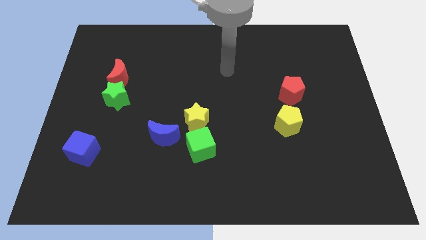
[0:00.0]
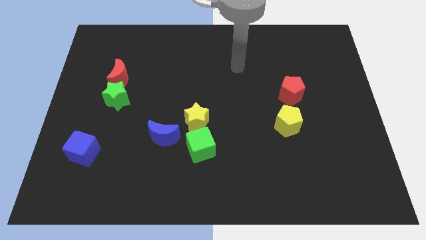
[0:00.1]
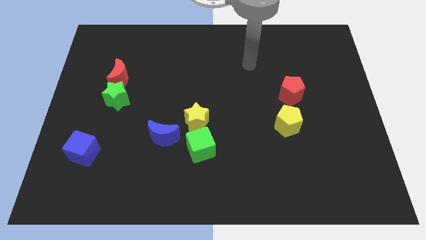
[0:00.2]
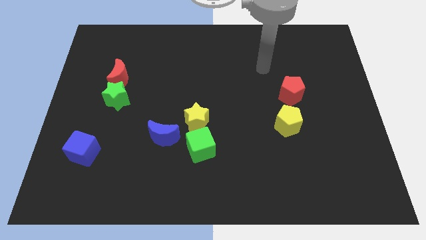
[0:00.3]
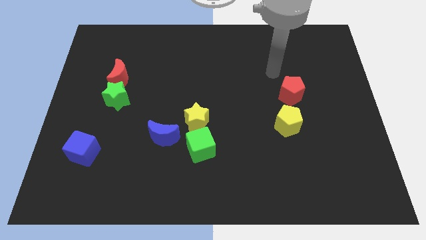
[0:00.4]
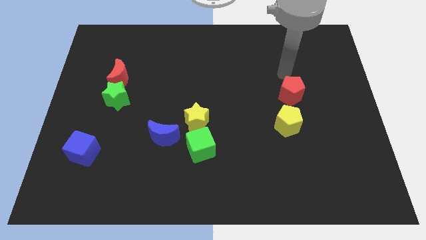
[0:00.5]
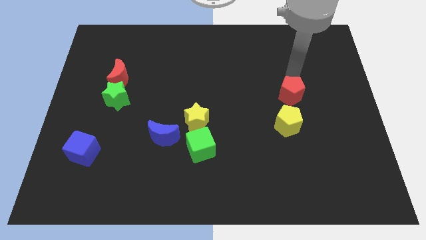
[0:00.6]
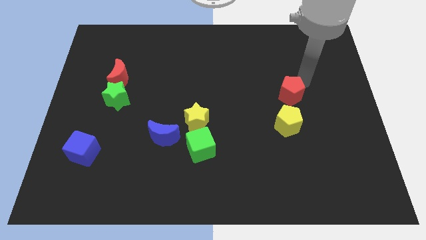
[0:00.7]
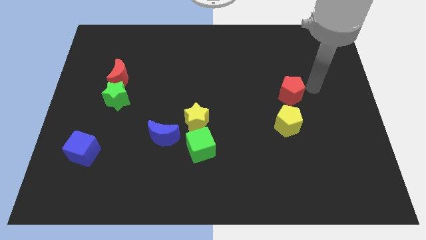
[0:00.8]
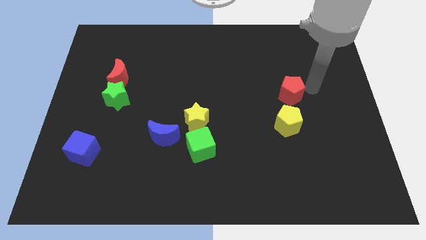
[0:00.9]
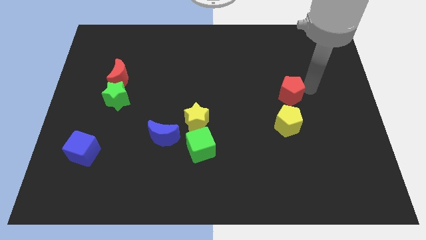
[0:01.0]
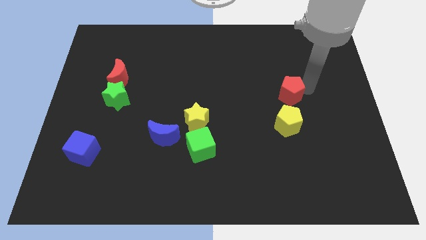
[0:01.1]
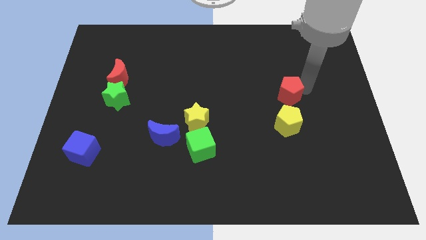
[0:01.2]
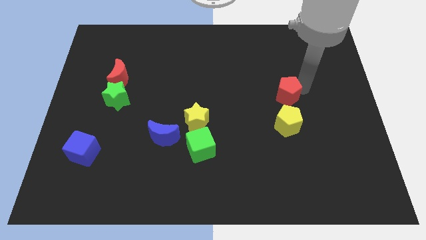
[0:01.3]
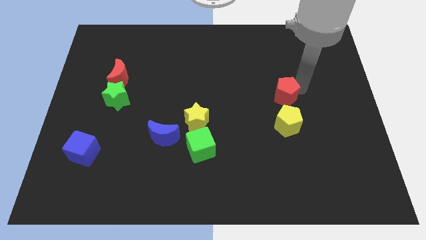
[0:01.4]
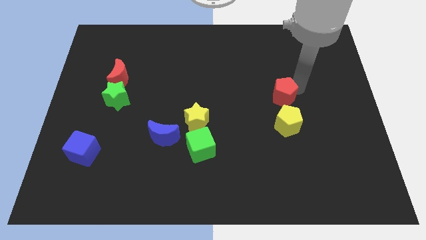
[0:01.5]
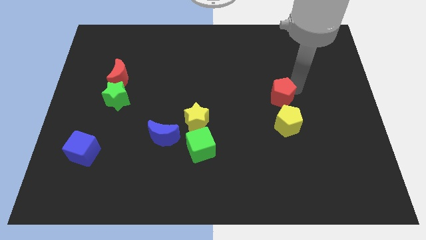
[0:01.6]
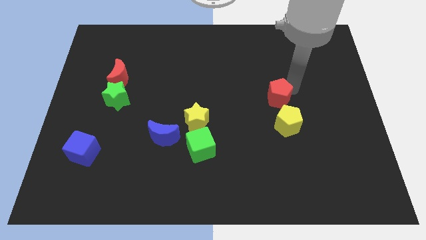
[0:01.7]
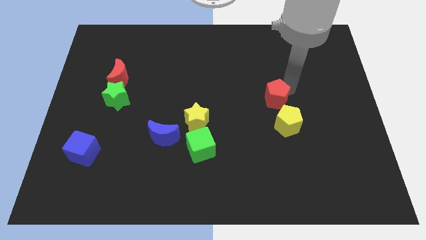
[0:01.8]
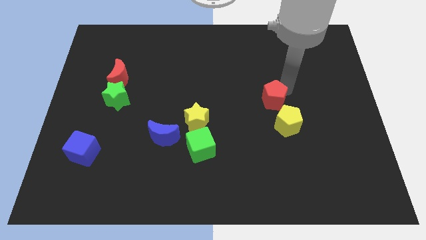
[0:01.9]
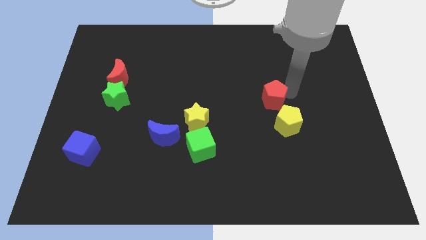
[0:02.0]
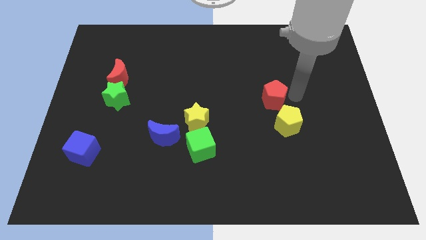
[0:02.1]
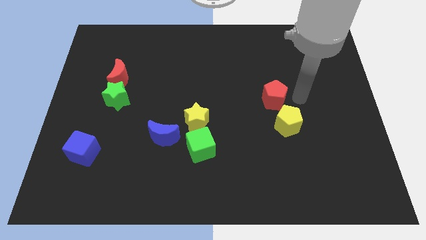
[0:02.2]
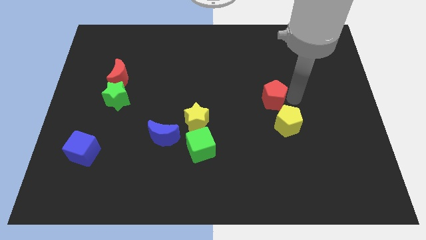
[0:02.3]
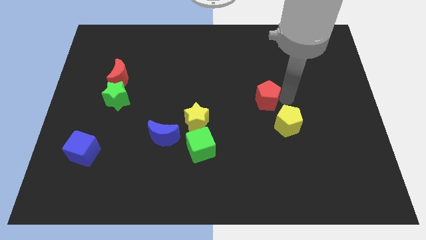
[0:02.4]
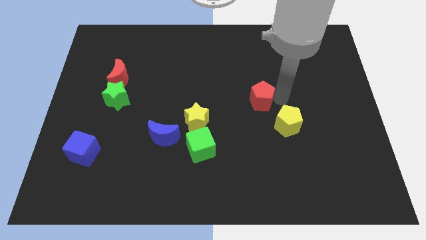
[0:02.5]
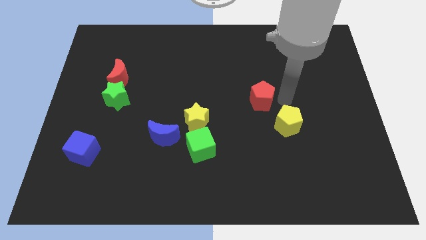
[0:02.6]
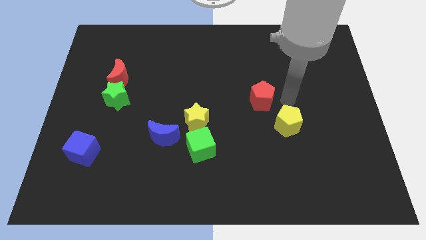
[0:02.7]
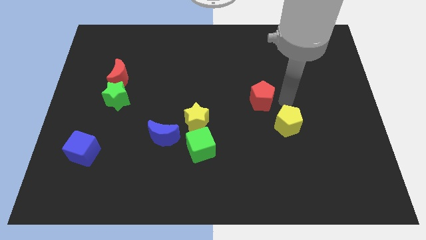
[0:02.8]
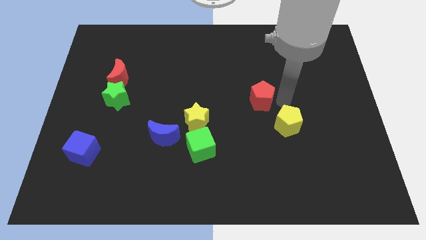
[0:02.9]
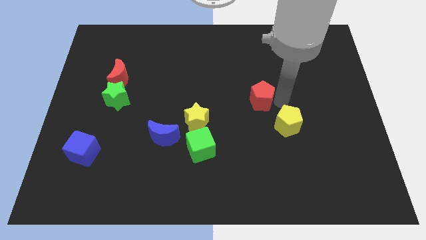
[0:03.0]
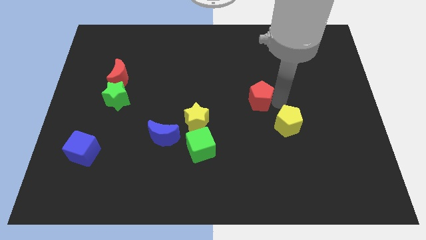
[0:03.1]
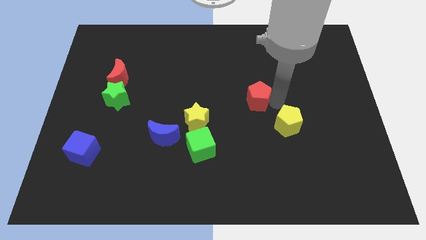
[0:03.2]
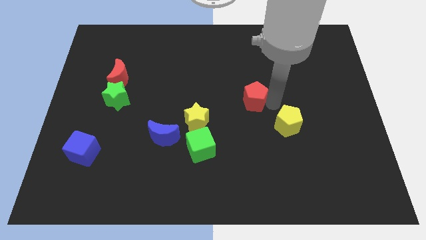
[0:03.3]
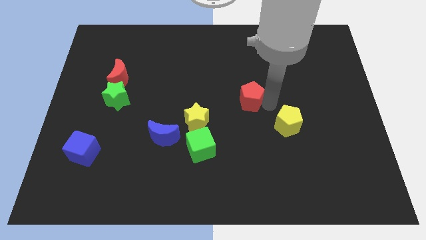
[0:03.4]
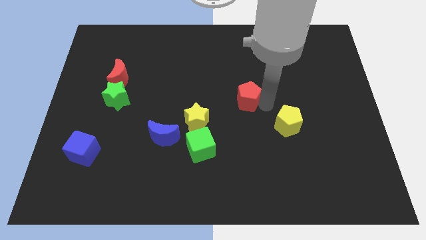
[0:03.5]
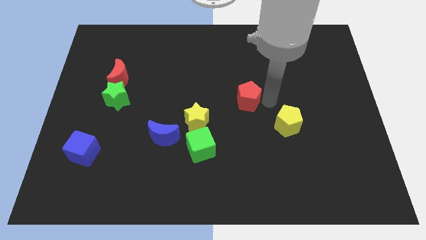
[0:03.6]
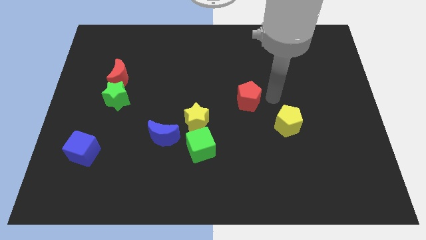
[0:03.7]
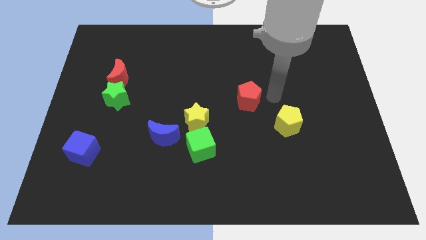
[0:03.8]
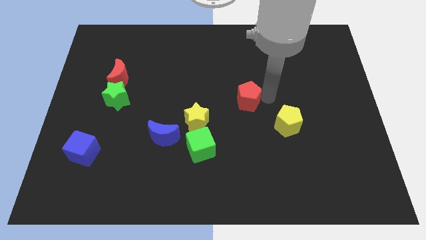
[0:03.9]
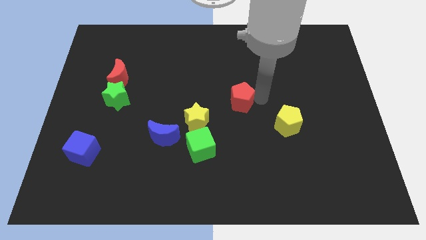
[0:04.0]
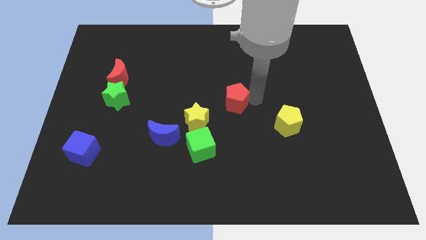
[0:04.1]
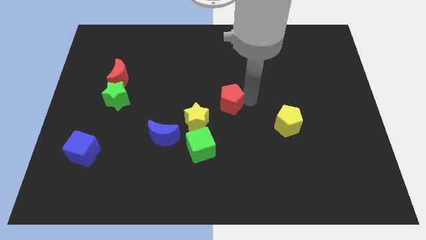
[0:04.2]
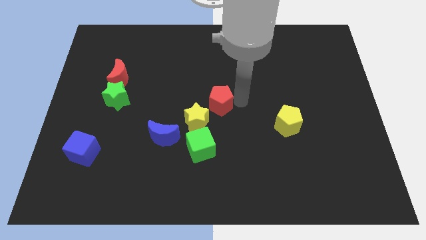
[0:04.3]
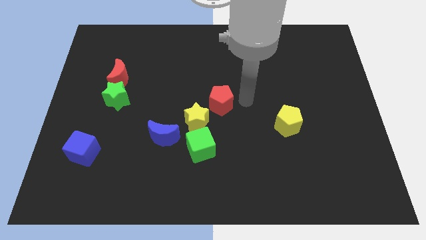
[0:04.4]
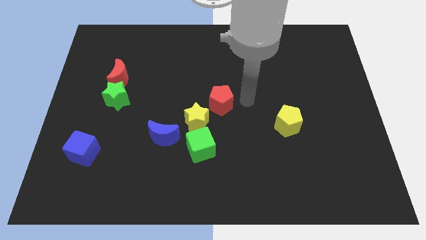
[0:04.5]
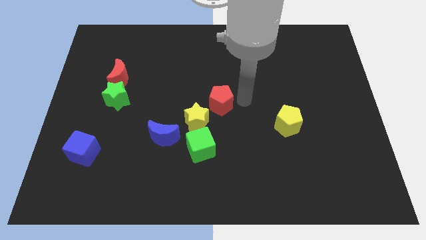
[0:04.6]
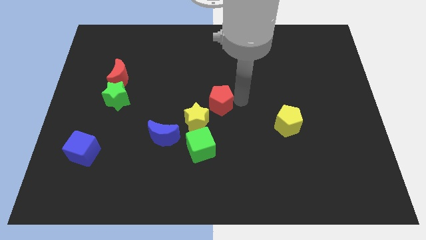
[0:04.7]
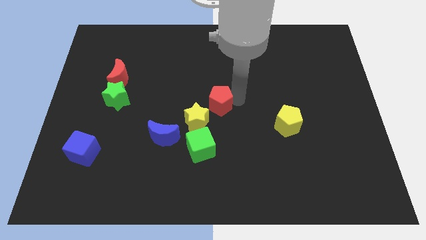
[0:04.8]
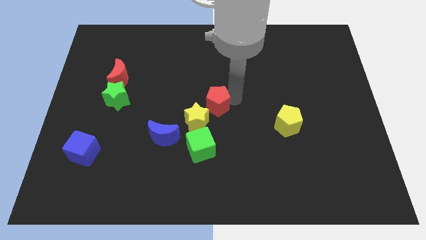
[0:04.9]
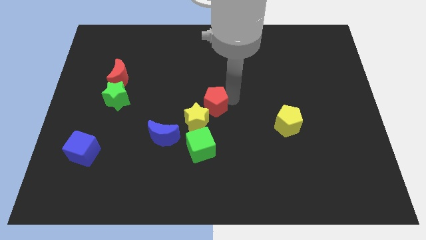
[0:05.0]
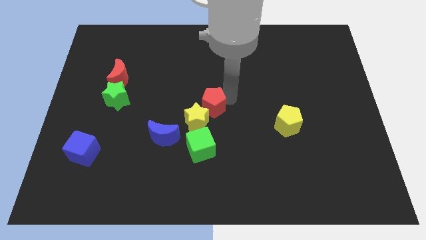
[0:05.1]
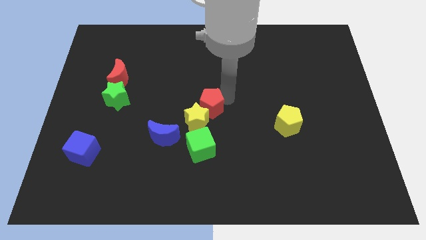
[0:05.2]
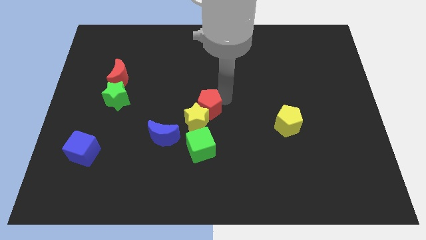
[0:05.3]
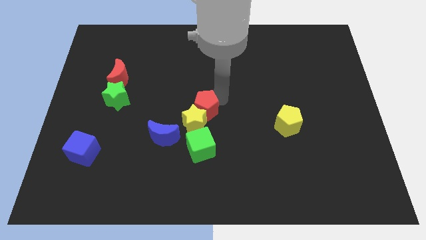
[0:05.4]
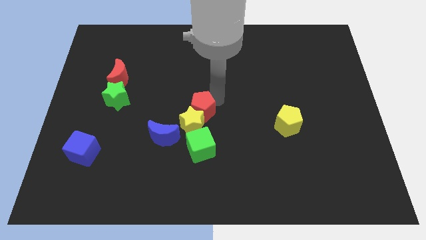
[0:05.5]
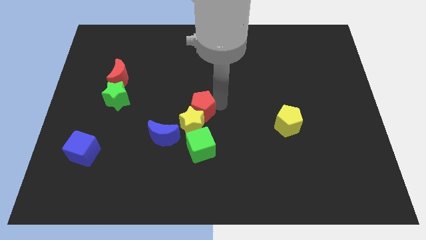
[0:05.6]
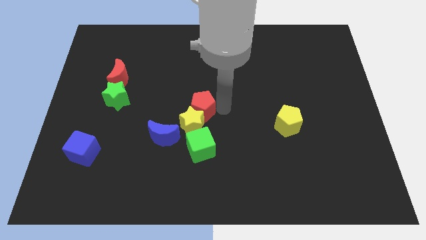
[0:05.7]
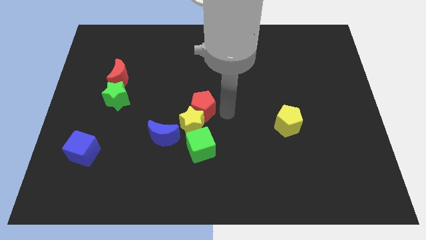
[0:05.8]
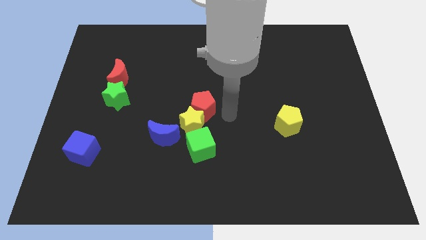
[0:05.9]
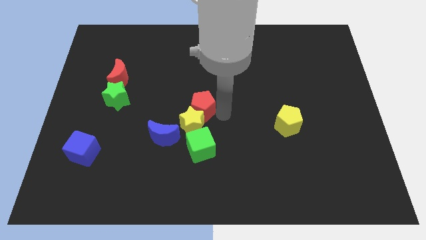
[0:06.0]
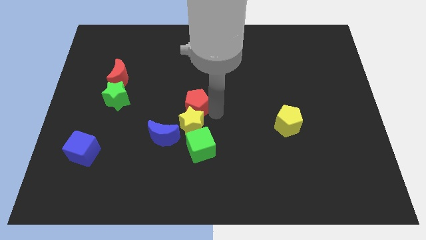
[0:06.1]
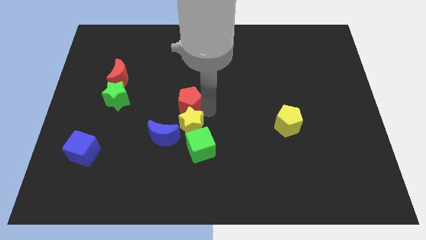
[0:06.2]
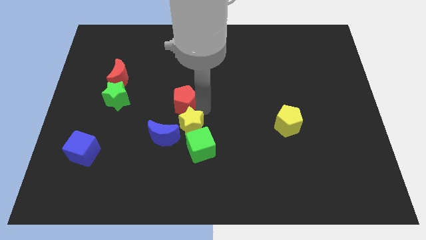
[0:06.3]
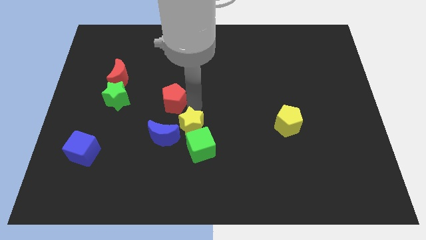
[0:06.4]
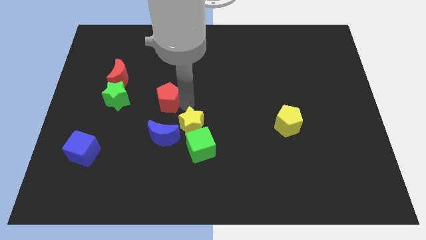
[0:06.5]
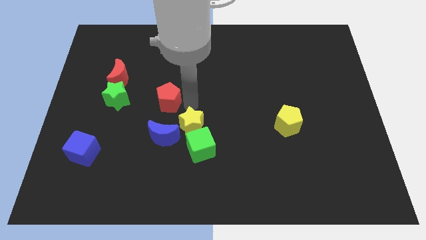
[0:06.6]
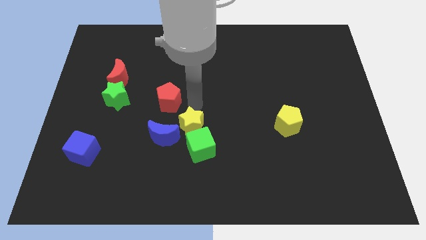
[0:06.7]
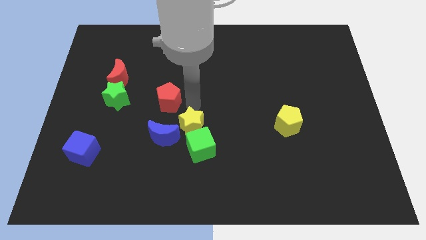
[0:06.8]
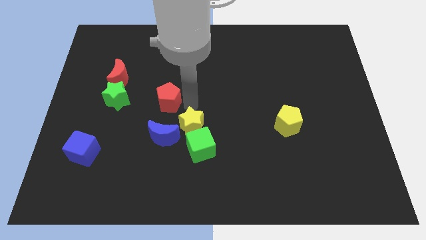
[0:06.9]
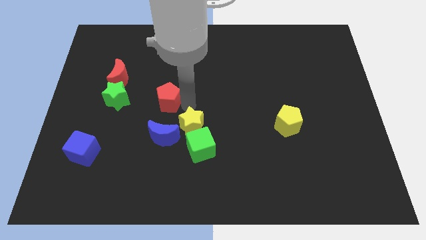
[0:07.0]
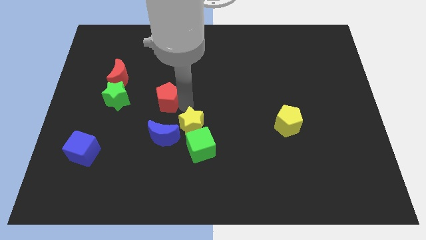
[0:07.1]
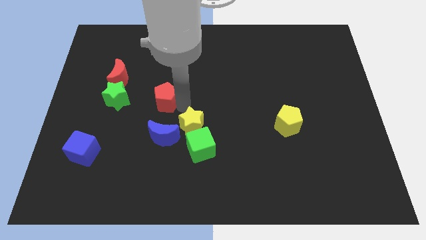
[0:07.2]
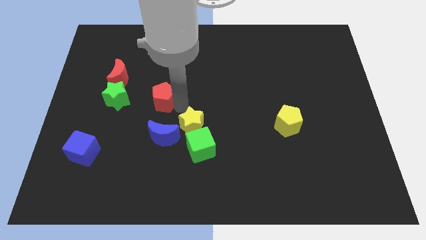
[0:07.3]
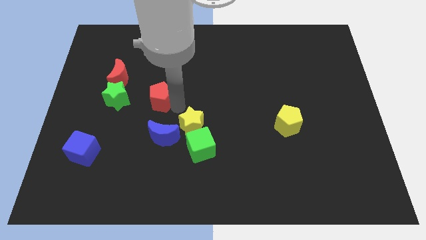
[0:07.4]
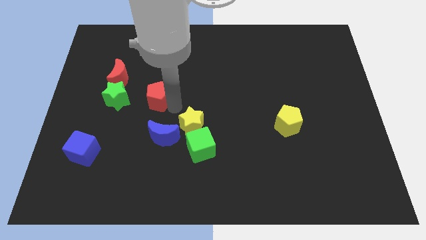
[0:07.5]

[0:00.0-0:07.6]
push the red pentagon diagonally down and to the right of the red moon
